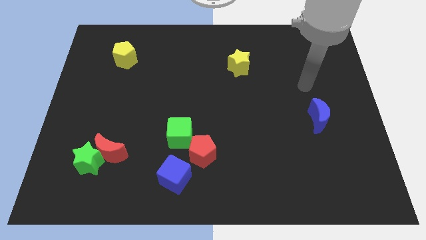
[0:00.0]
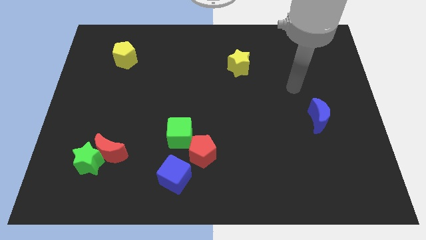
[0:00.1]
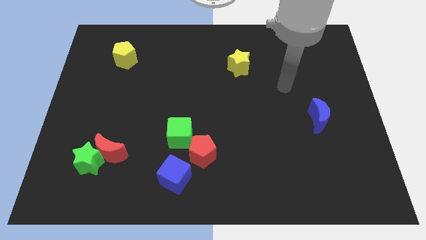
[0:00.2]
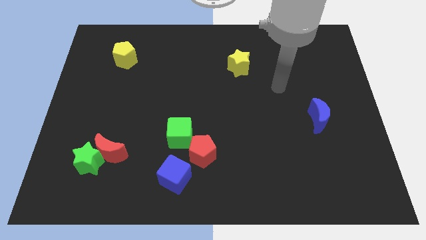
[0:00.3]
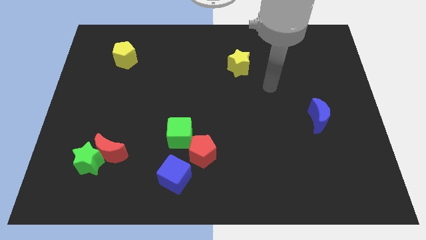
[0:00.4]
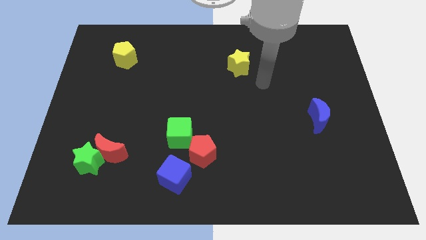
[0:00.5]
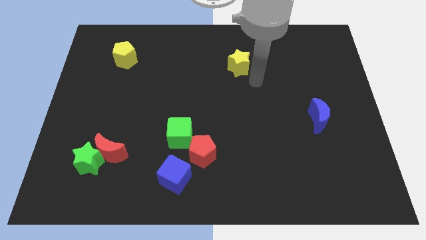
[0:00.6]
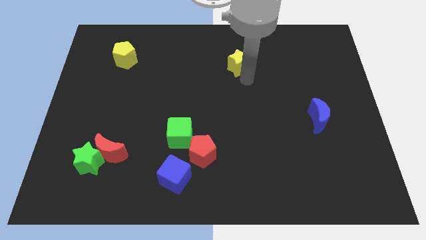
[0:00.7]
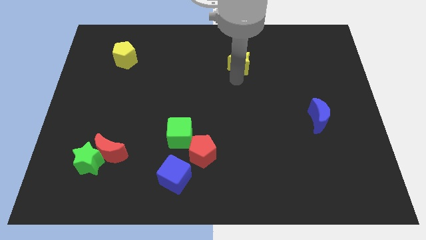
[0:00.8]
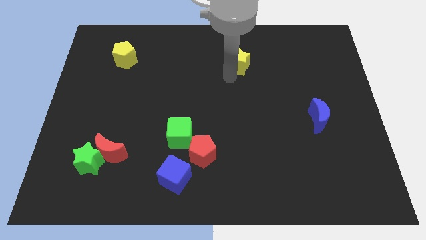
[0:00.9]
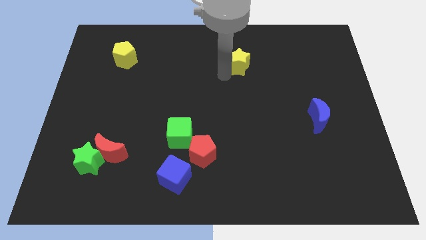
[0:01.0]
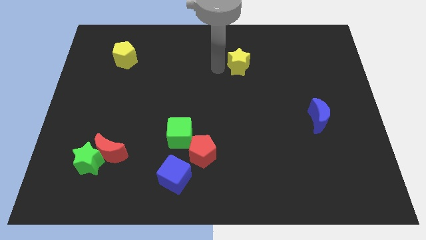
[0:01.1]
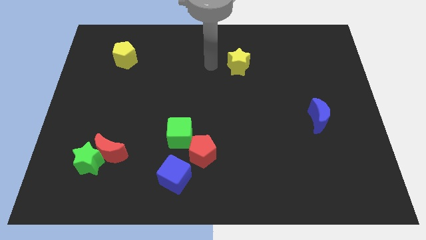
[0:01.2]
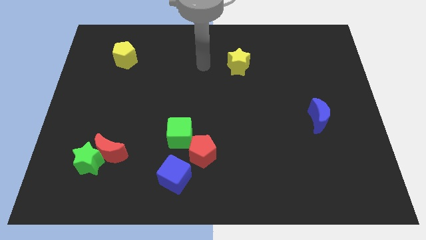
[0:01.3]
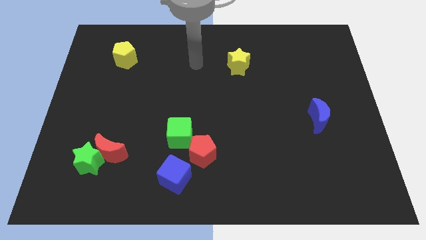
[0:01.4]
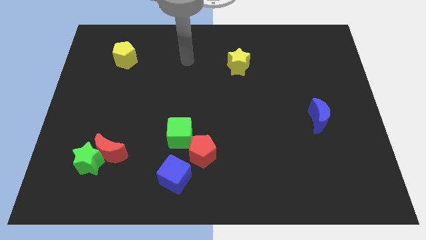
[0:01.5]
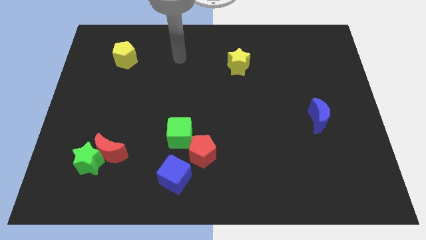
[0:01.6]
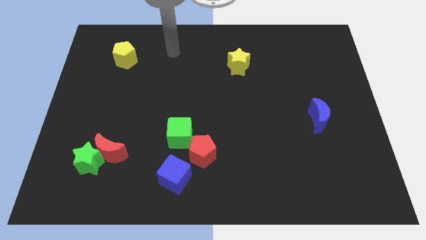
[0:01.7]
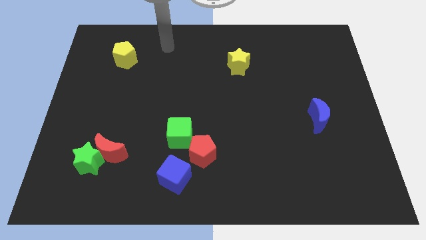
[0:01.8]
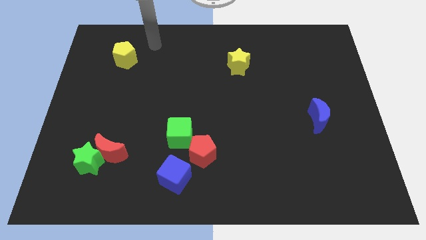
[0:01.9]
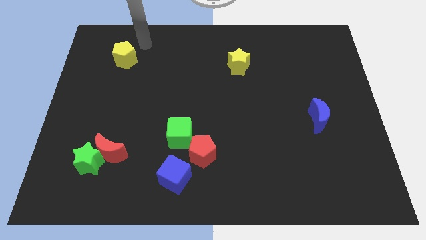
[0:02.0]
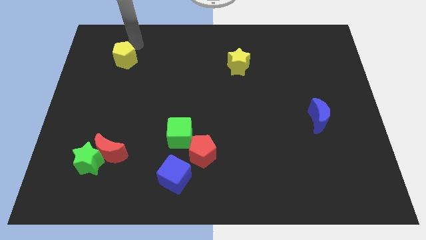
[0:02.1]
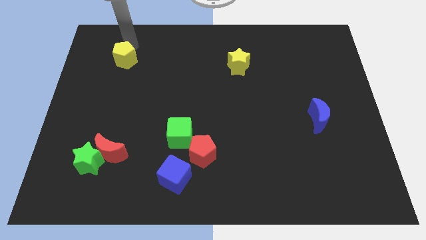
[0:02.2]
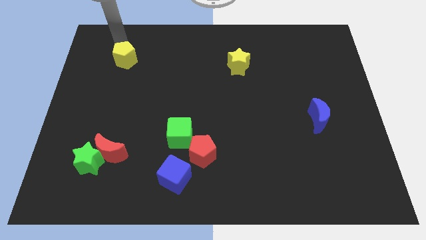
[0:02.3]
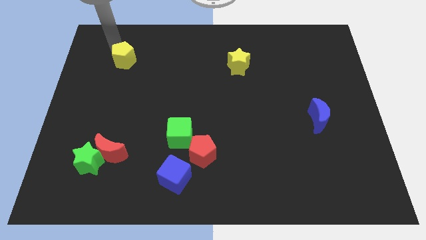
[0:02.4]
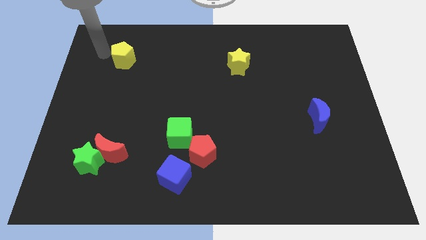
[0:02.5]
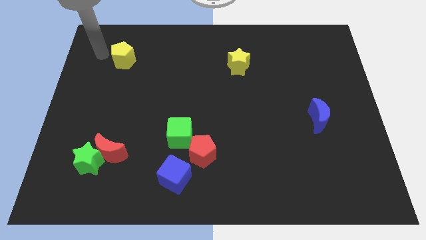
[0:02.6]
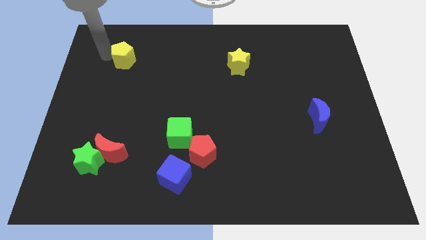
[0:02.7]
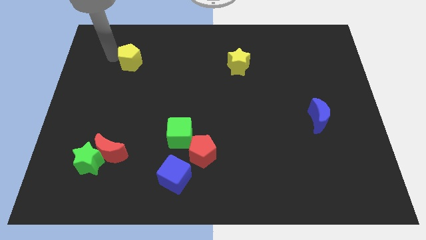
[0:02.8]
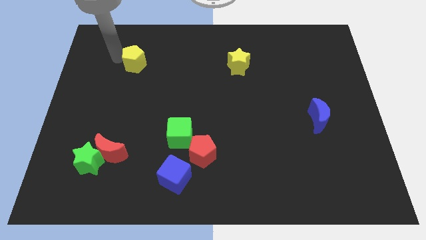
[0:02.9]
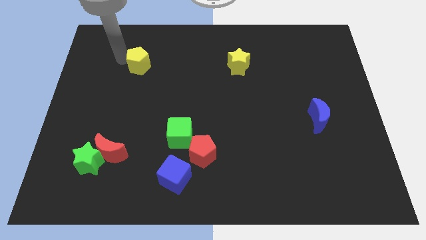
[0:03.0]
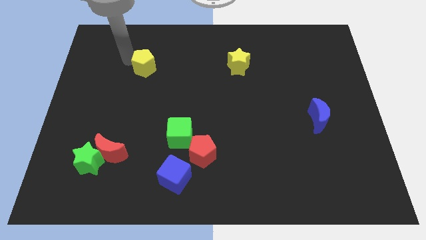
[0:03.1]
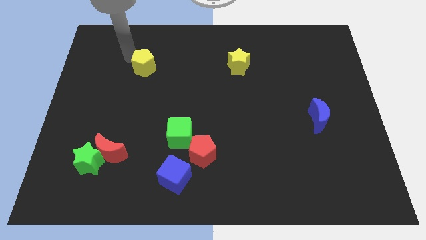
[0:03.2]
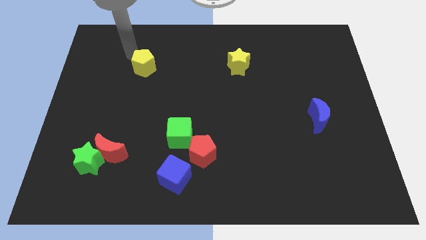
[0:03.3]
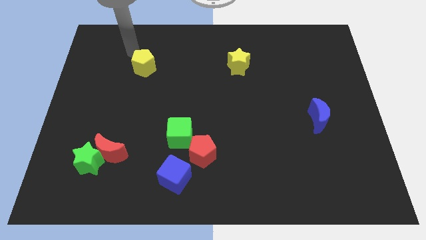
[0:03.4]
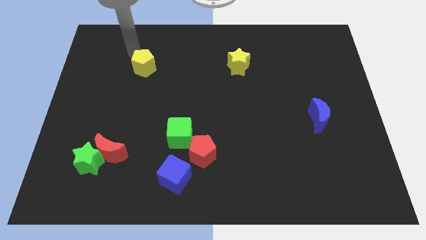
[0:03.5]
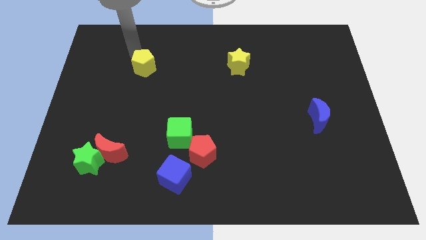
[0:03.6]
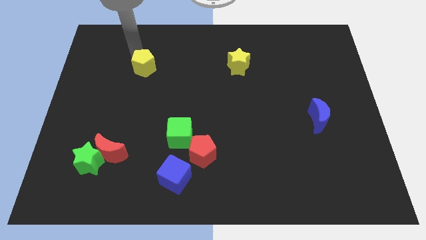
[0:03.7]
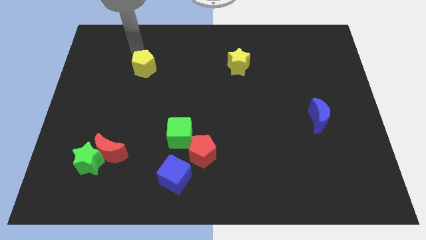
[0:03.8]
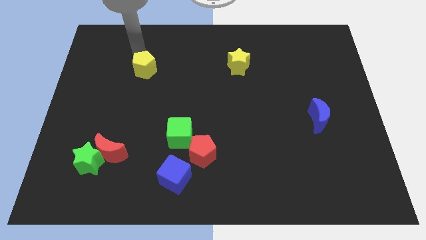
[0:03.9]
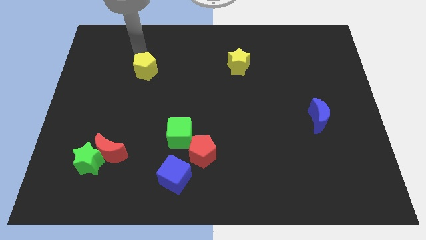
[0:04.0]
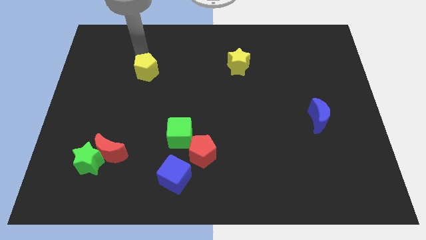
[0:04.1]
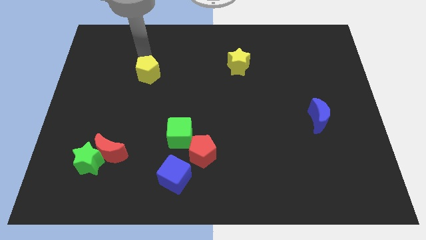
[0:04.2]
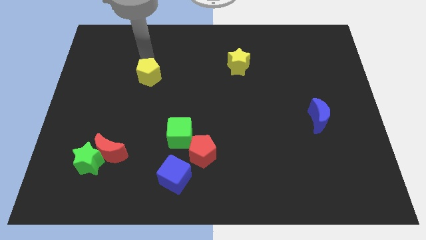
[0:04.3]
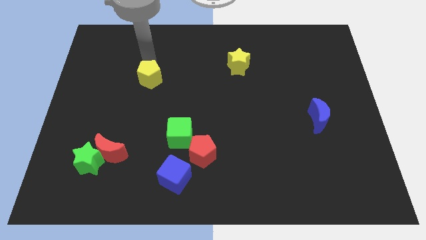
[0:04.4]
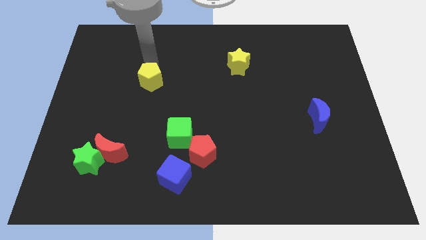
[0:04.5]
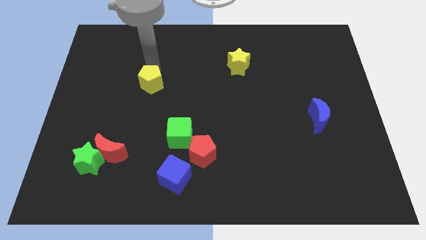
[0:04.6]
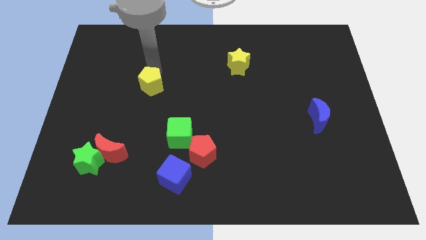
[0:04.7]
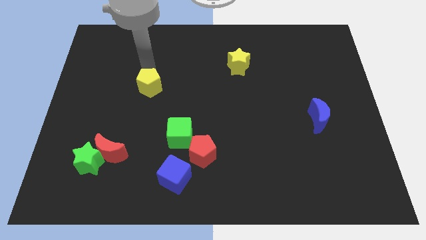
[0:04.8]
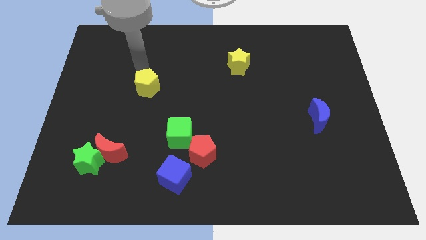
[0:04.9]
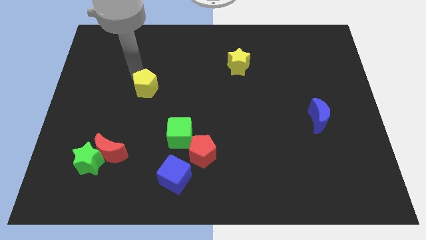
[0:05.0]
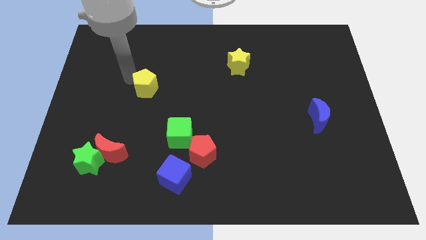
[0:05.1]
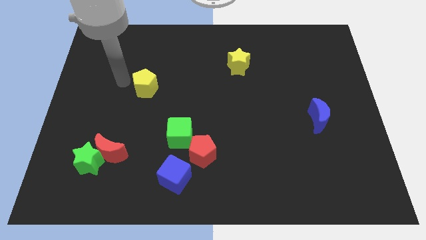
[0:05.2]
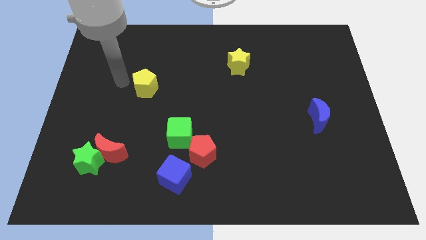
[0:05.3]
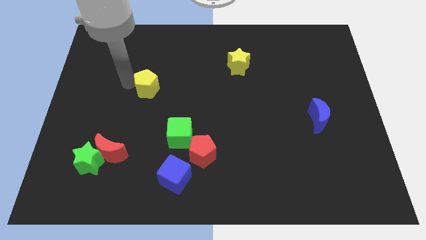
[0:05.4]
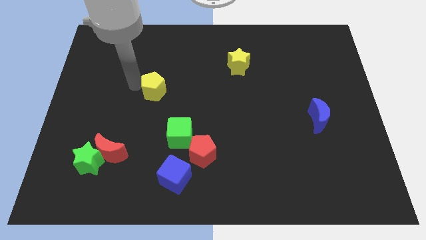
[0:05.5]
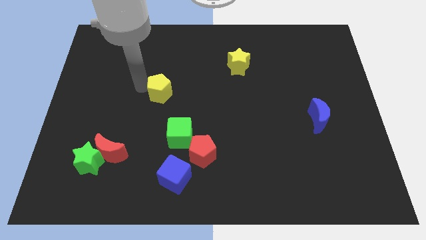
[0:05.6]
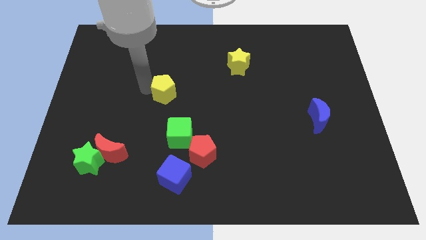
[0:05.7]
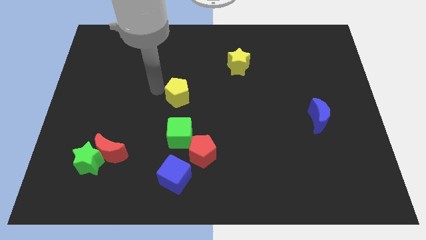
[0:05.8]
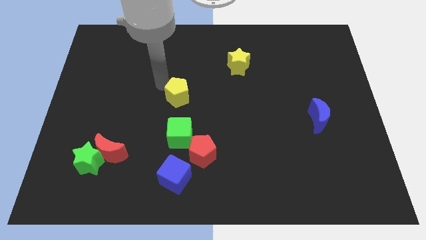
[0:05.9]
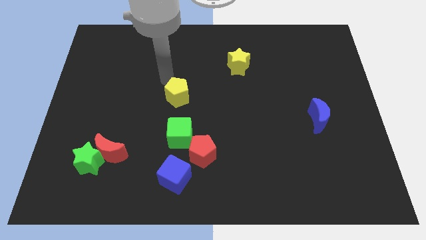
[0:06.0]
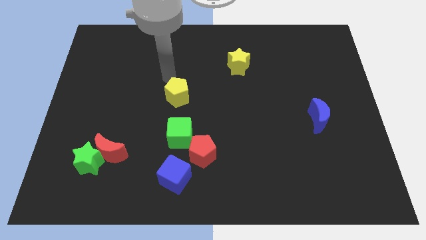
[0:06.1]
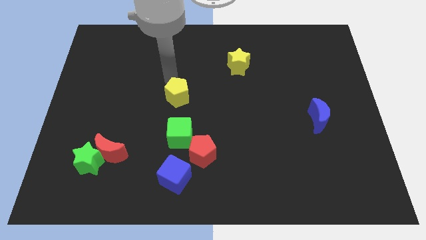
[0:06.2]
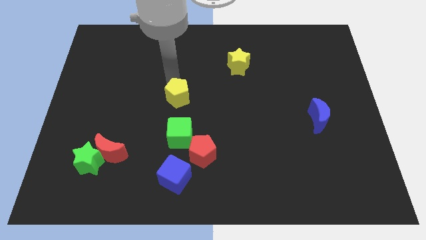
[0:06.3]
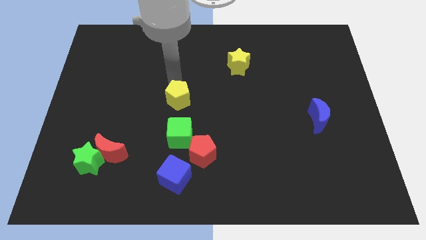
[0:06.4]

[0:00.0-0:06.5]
push the yellow pentagon diagonally downwards and to the right

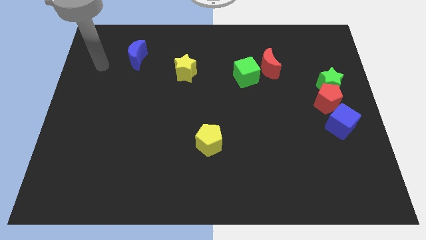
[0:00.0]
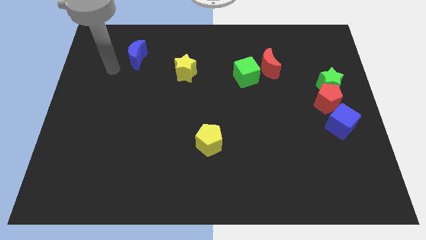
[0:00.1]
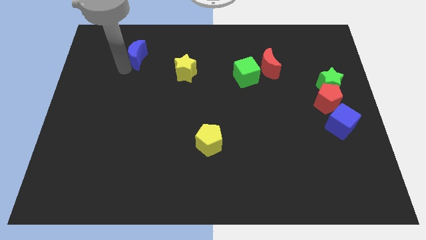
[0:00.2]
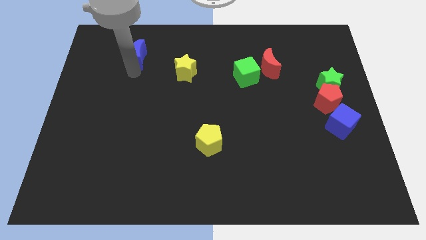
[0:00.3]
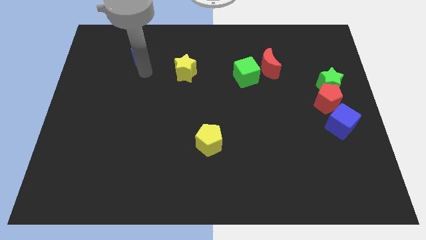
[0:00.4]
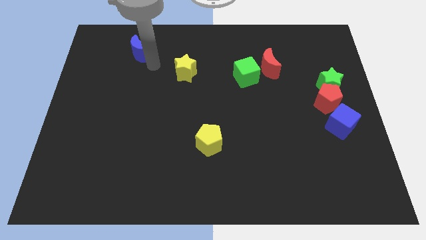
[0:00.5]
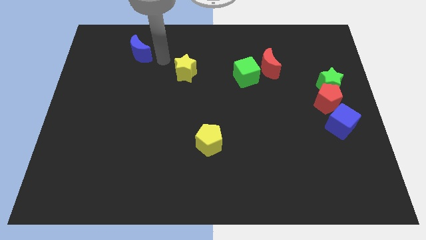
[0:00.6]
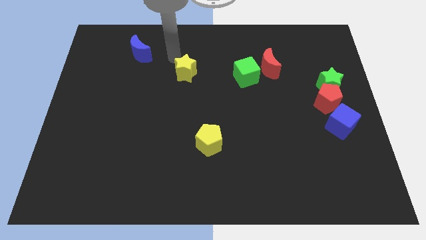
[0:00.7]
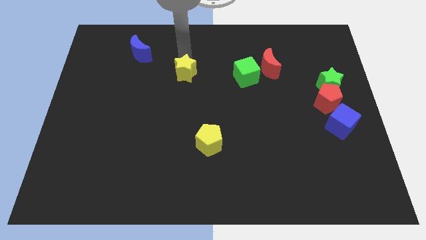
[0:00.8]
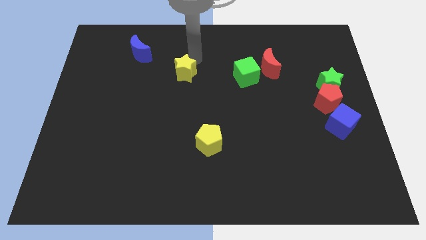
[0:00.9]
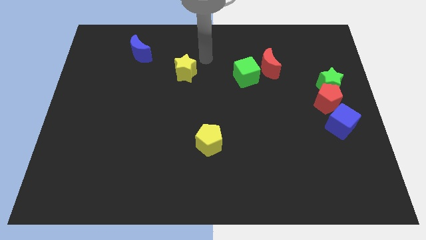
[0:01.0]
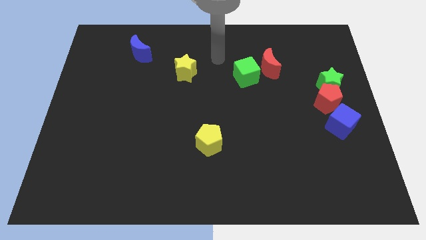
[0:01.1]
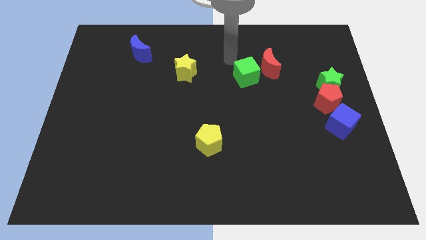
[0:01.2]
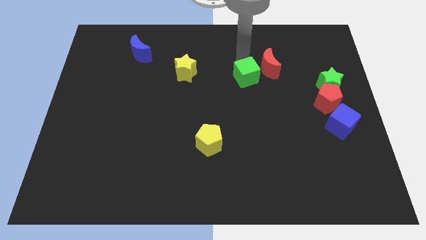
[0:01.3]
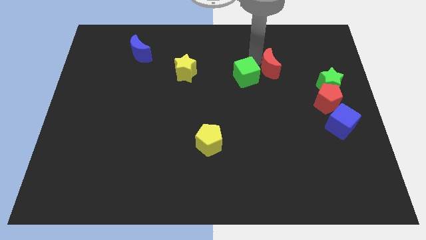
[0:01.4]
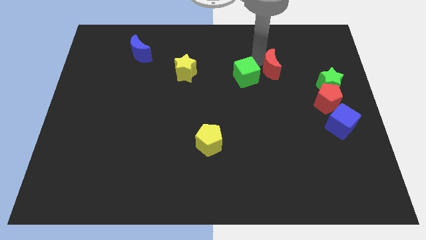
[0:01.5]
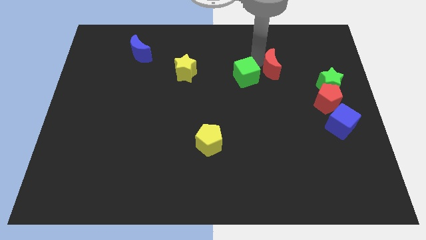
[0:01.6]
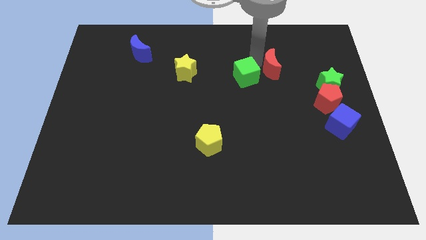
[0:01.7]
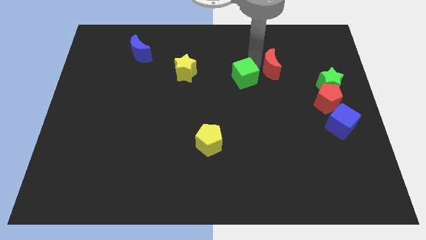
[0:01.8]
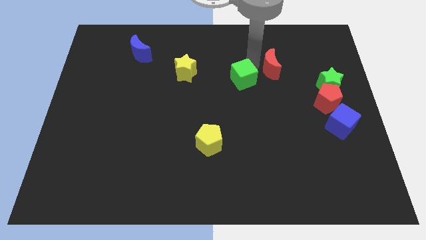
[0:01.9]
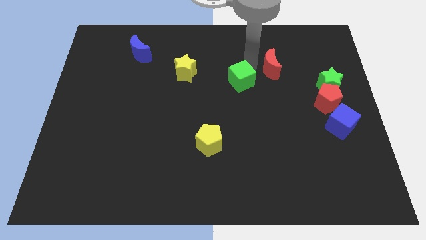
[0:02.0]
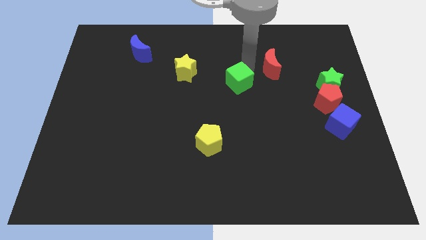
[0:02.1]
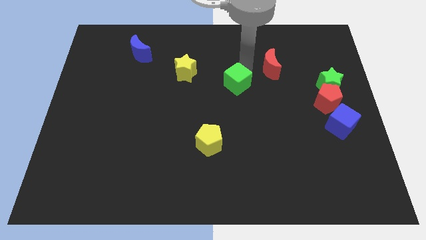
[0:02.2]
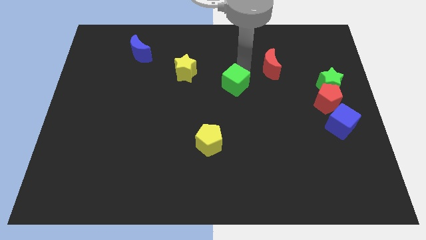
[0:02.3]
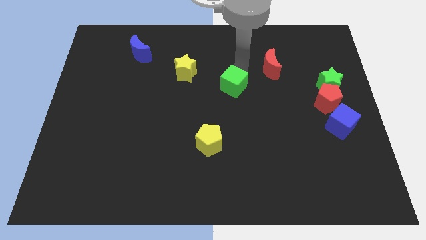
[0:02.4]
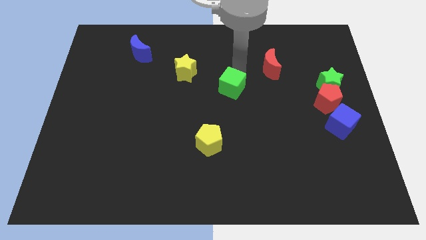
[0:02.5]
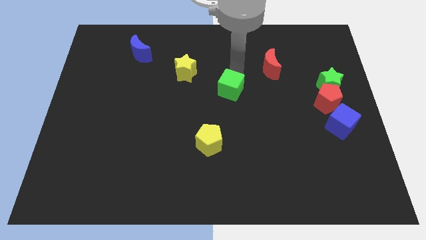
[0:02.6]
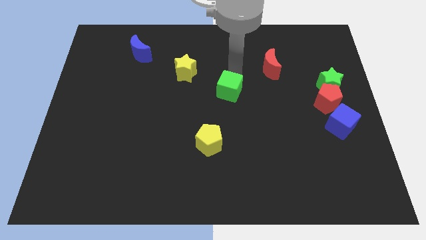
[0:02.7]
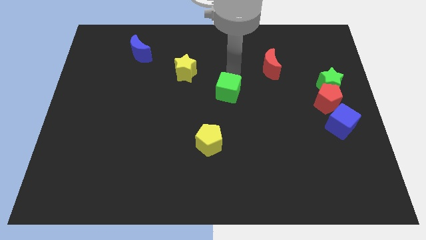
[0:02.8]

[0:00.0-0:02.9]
slightly push the green cube diagonally downwards and left
